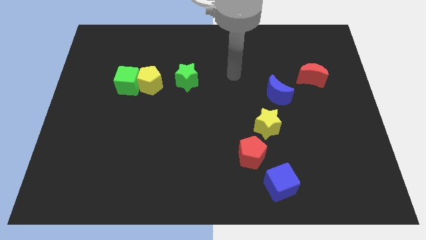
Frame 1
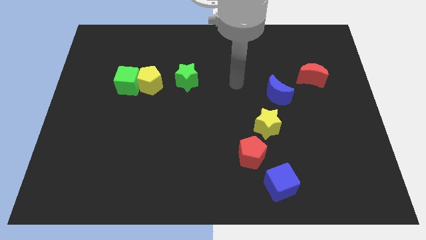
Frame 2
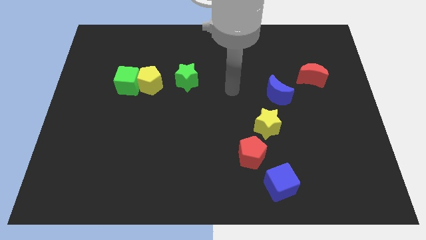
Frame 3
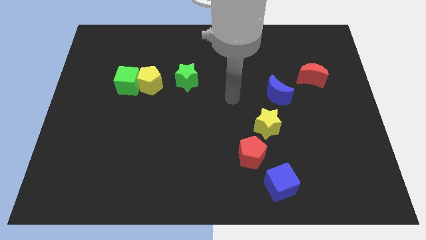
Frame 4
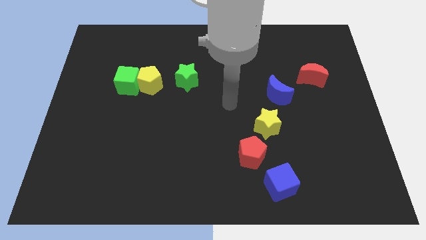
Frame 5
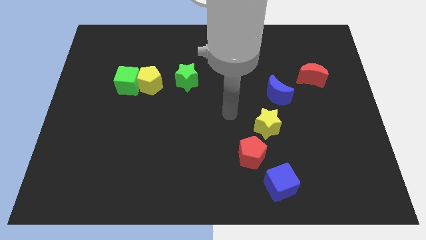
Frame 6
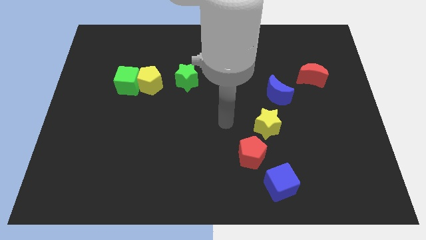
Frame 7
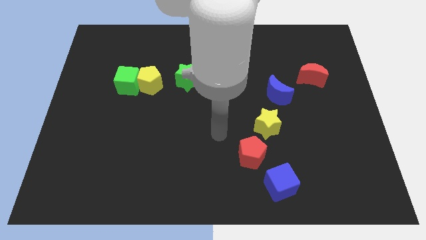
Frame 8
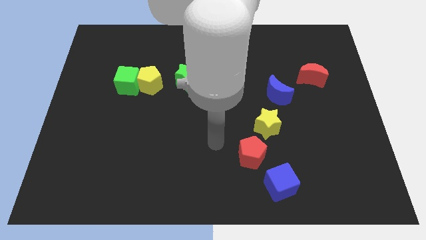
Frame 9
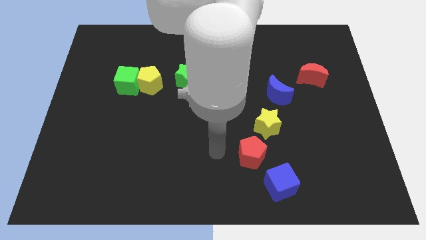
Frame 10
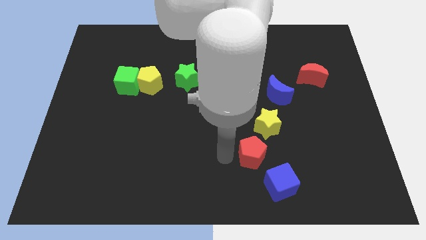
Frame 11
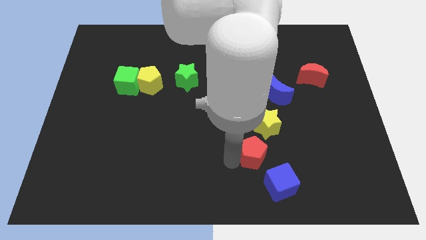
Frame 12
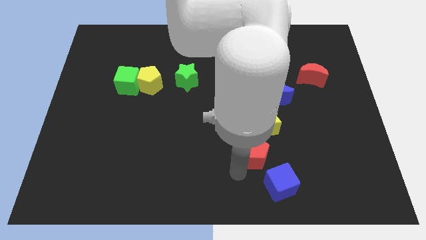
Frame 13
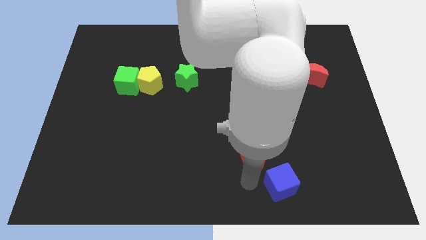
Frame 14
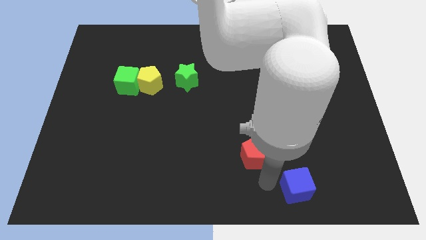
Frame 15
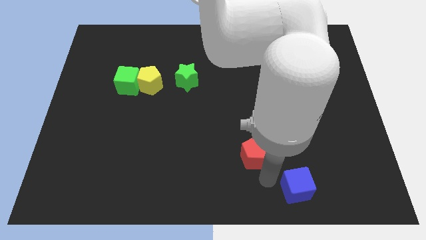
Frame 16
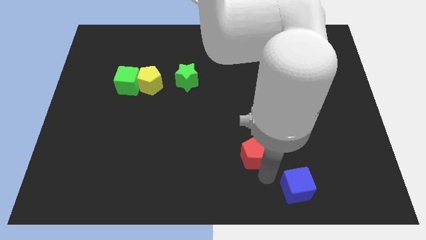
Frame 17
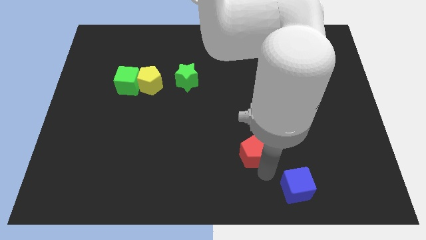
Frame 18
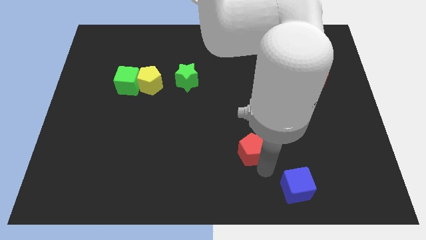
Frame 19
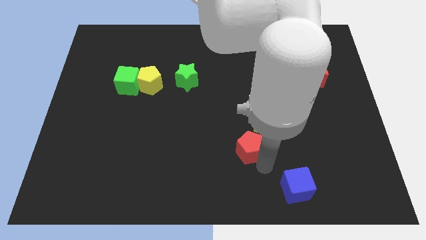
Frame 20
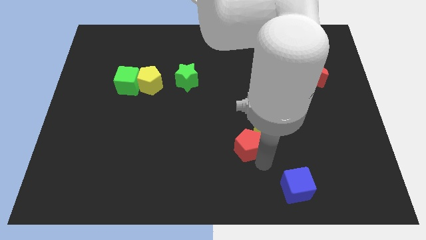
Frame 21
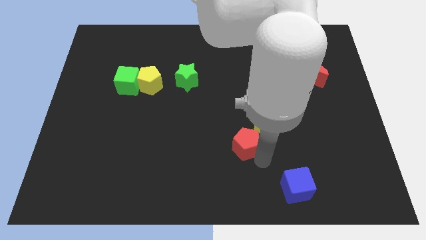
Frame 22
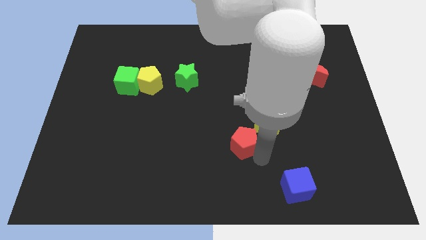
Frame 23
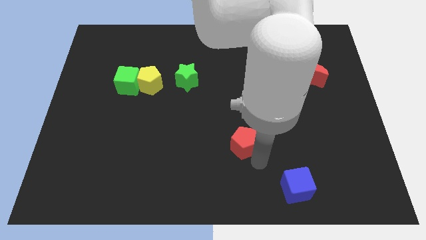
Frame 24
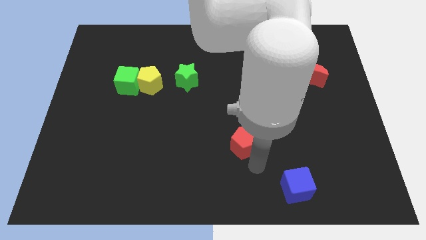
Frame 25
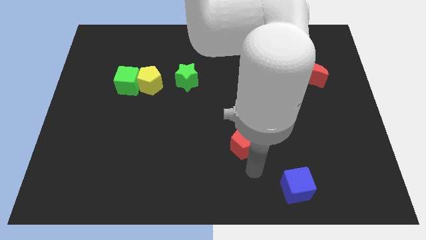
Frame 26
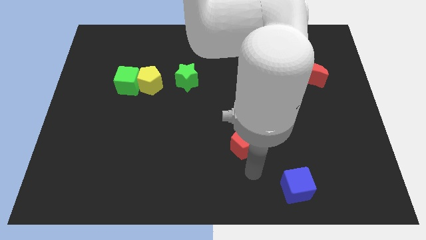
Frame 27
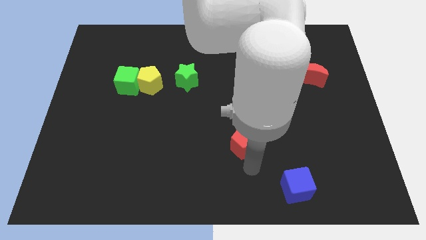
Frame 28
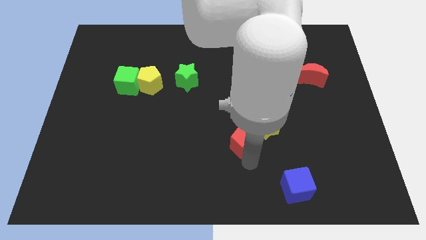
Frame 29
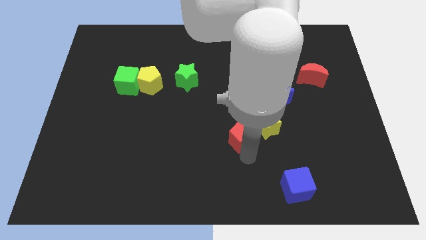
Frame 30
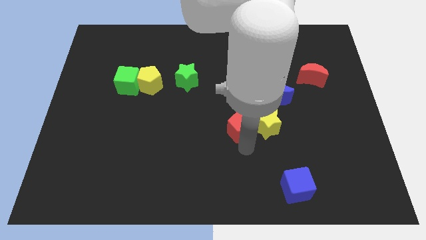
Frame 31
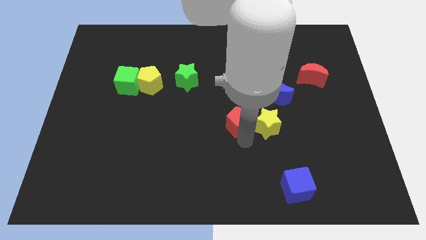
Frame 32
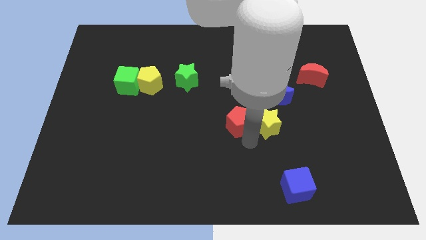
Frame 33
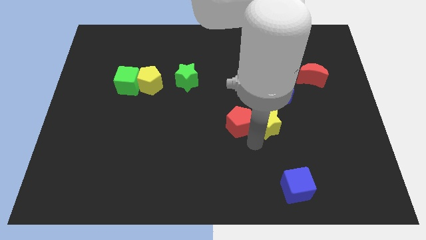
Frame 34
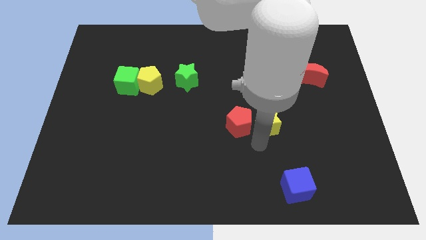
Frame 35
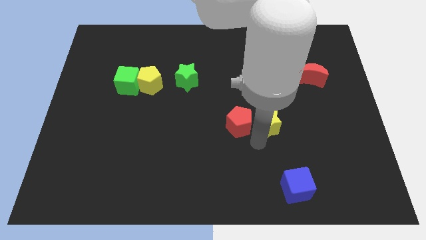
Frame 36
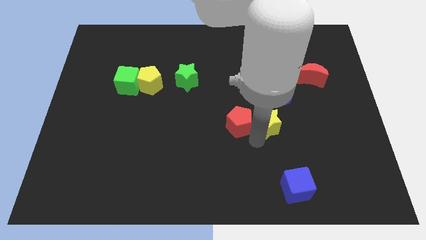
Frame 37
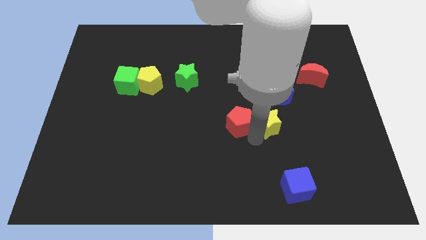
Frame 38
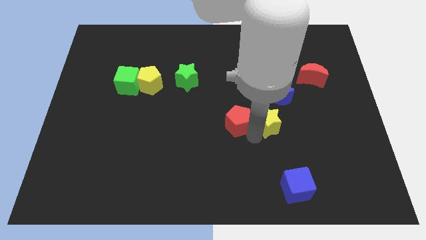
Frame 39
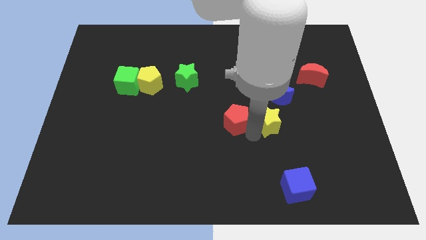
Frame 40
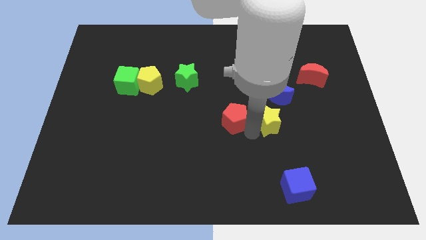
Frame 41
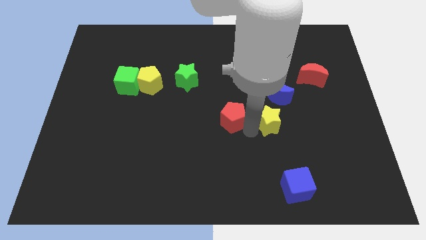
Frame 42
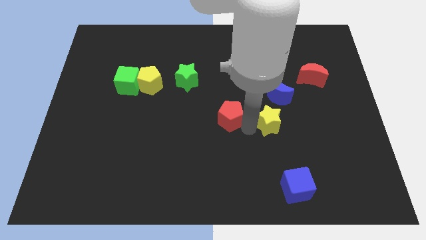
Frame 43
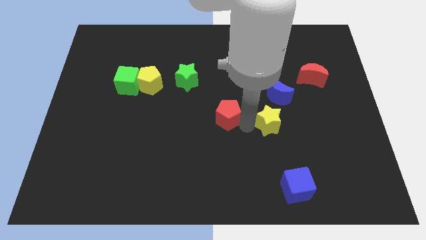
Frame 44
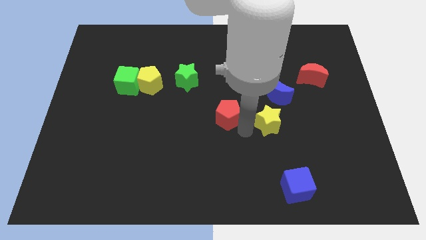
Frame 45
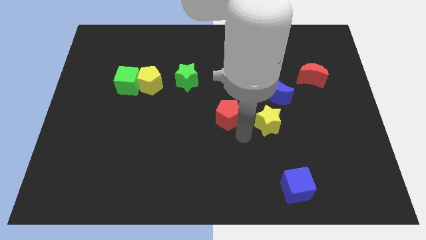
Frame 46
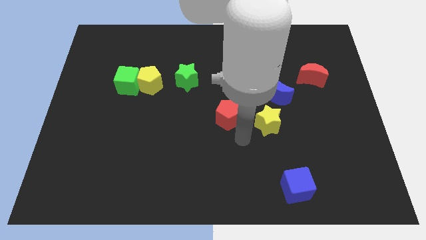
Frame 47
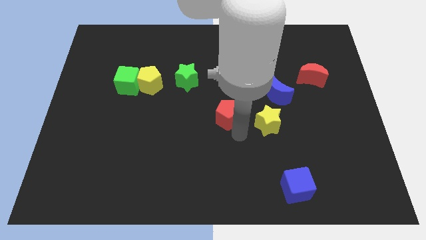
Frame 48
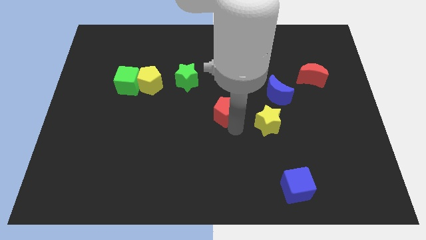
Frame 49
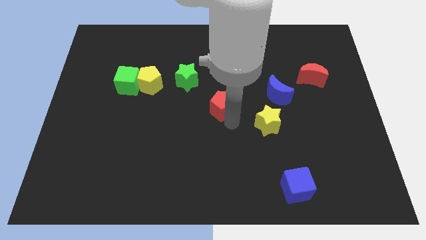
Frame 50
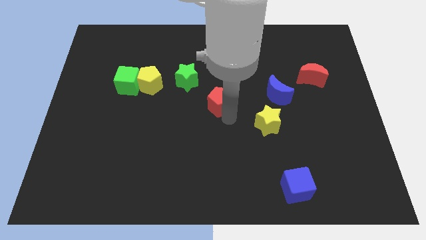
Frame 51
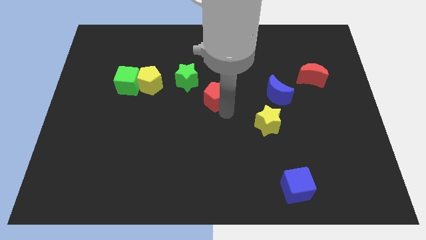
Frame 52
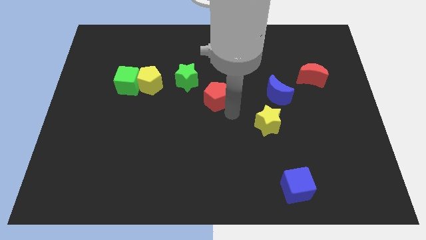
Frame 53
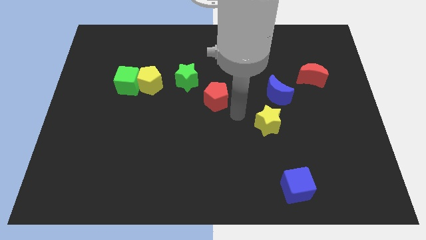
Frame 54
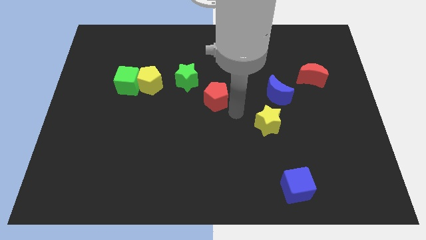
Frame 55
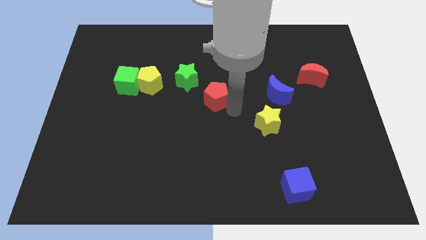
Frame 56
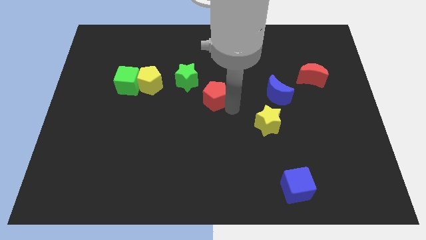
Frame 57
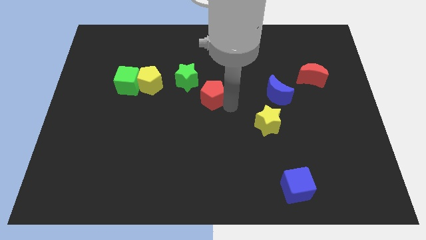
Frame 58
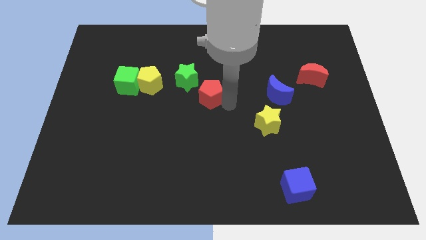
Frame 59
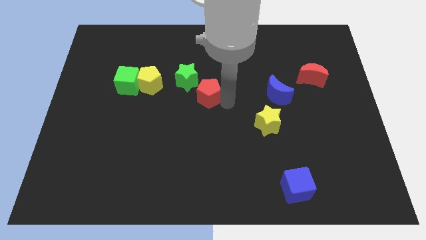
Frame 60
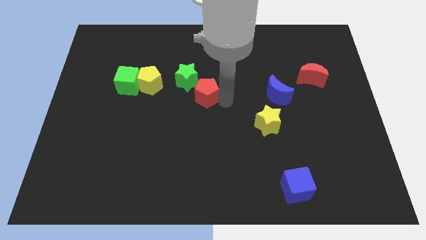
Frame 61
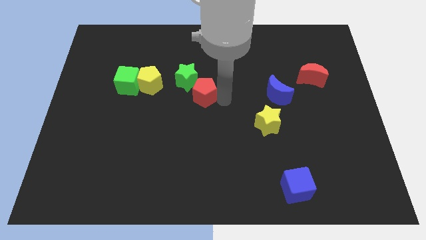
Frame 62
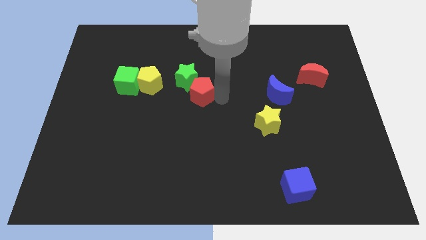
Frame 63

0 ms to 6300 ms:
put the red pentagon towards the green star

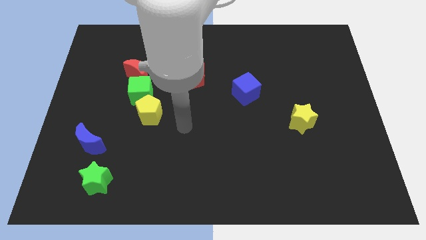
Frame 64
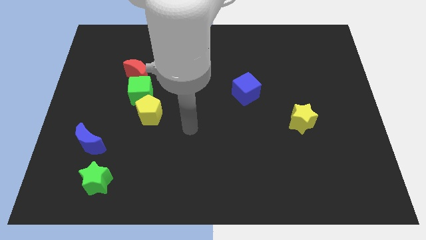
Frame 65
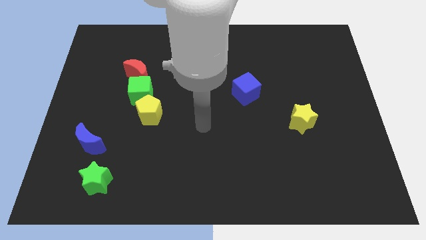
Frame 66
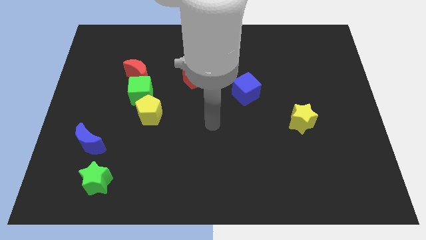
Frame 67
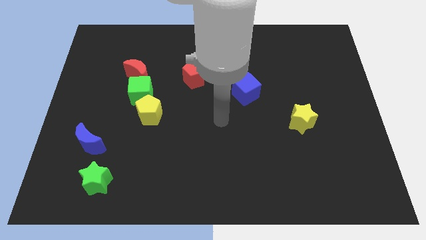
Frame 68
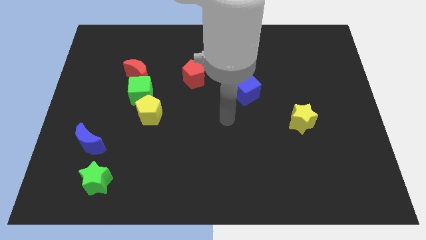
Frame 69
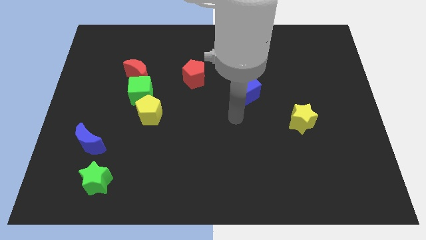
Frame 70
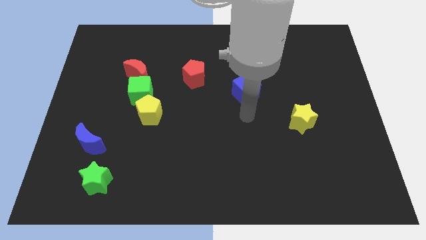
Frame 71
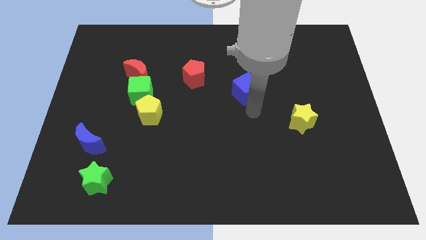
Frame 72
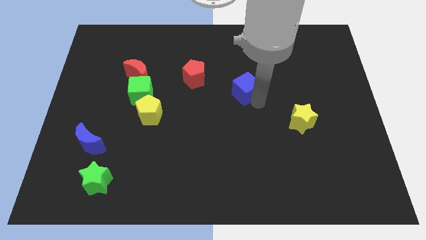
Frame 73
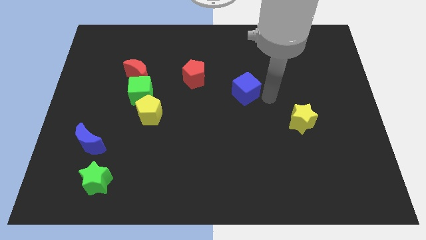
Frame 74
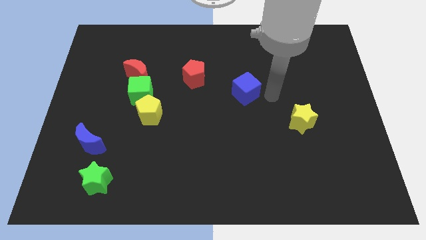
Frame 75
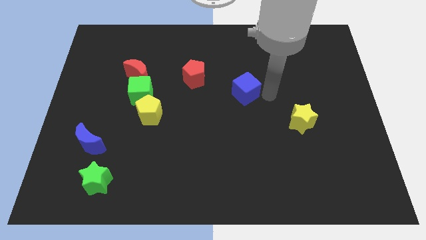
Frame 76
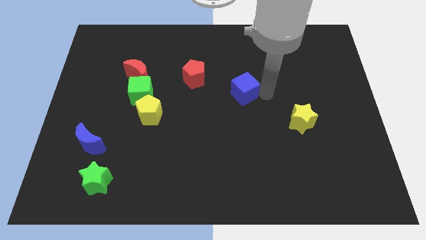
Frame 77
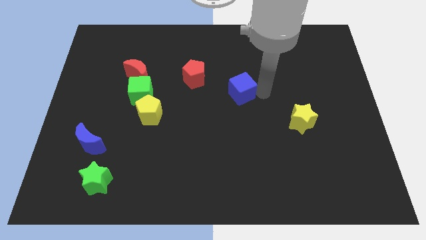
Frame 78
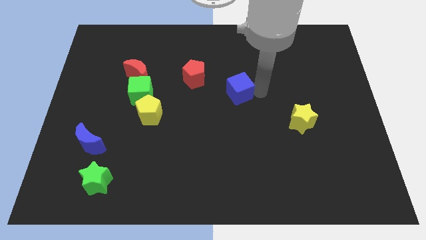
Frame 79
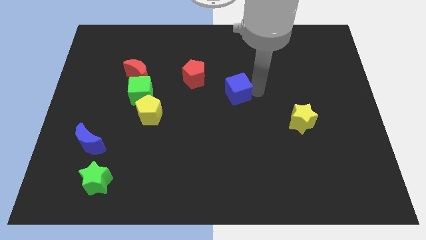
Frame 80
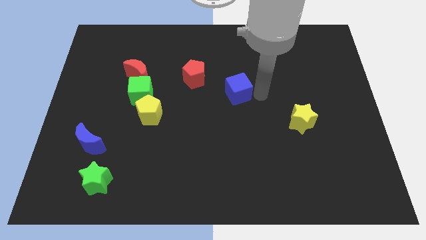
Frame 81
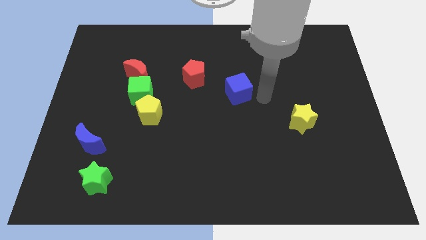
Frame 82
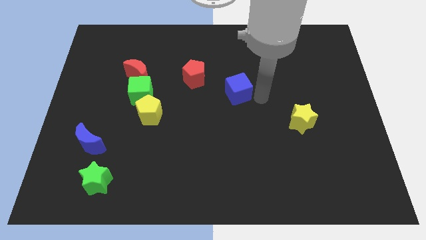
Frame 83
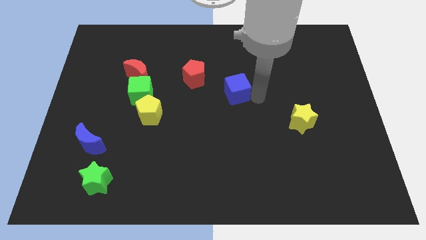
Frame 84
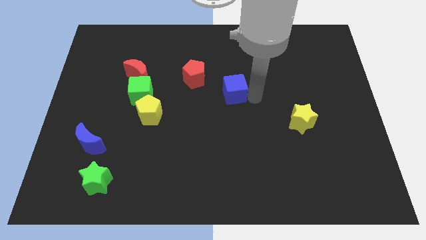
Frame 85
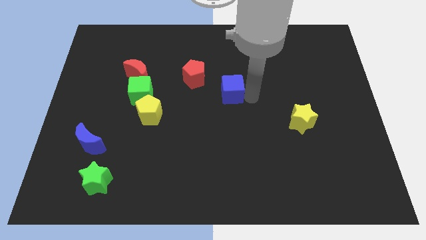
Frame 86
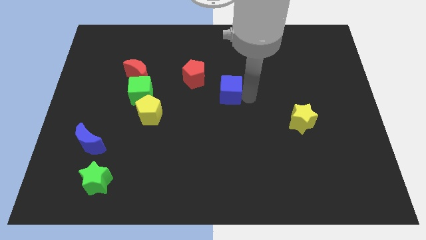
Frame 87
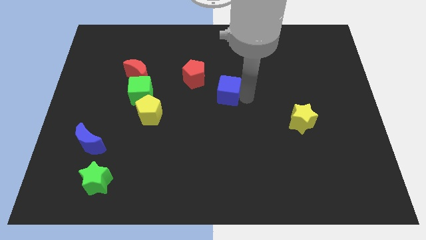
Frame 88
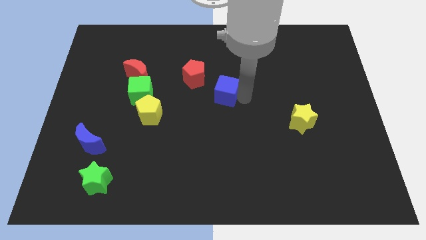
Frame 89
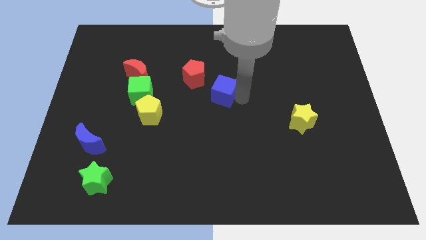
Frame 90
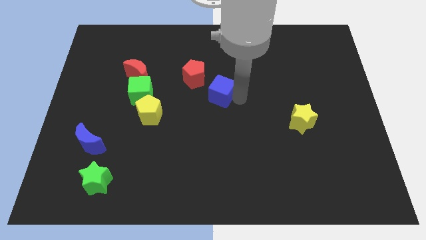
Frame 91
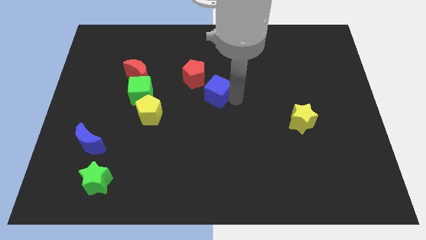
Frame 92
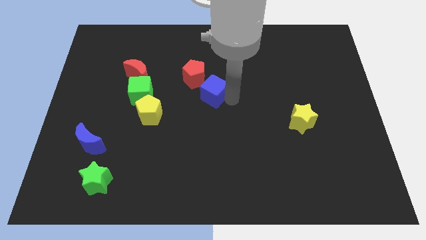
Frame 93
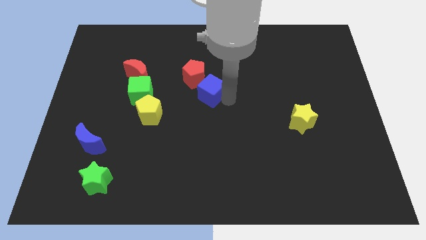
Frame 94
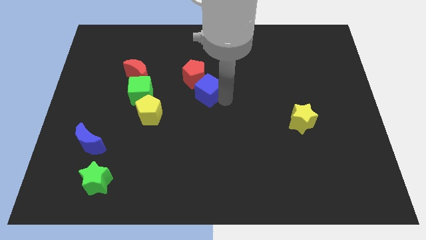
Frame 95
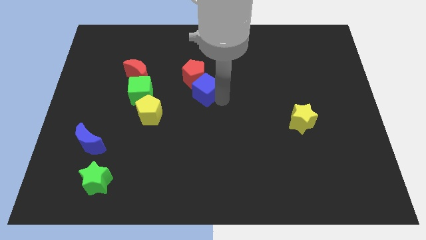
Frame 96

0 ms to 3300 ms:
slide the blue cube to the red pentagon
